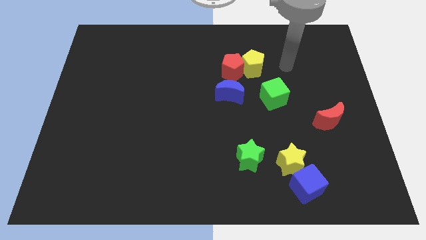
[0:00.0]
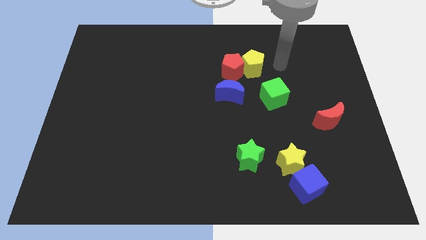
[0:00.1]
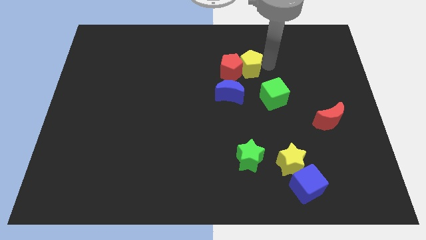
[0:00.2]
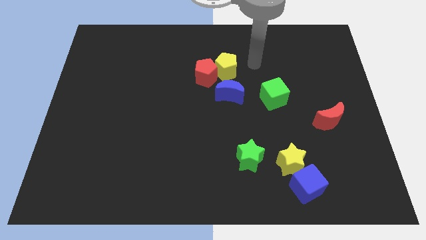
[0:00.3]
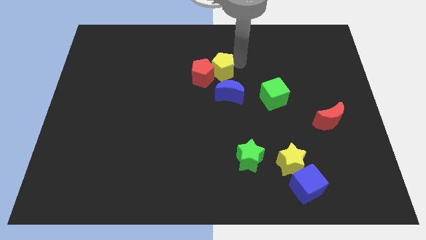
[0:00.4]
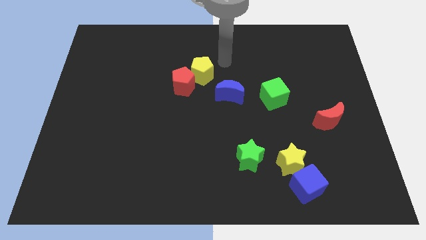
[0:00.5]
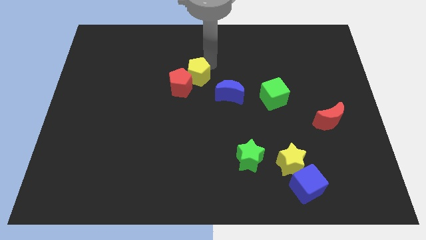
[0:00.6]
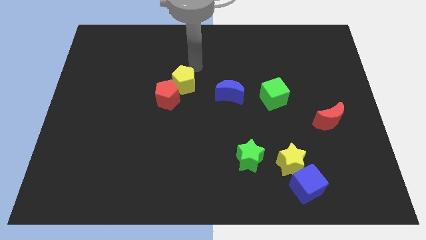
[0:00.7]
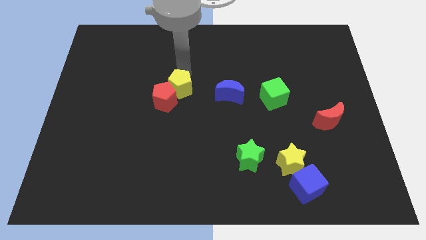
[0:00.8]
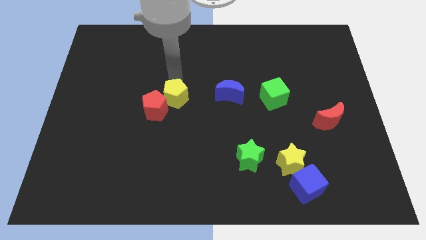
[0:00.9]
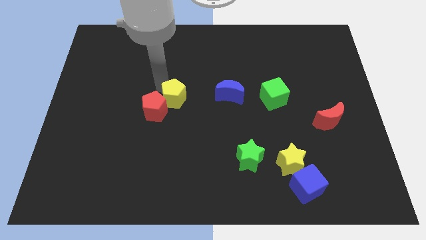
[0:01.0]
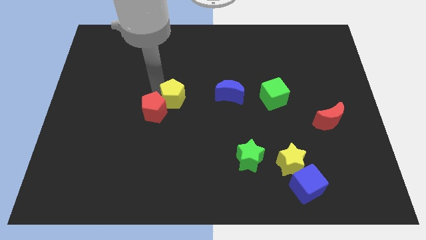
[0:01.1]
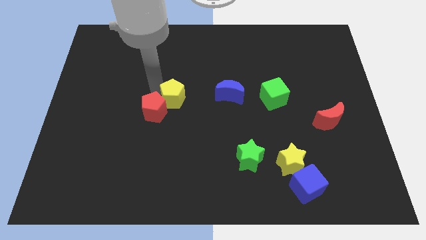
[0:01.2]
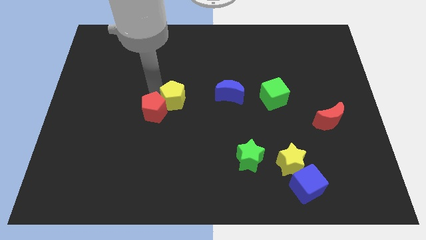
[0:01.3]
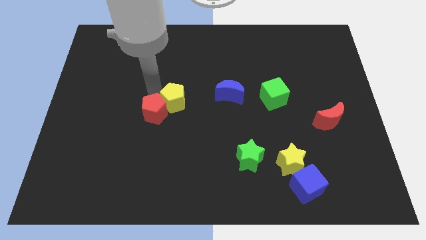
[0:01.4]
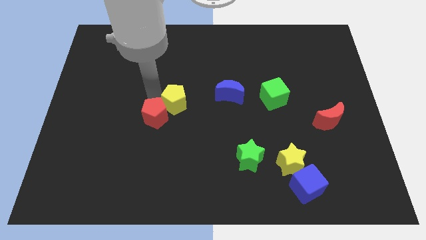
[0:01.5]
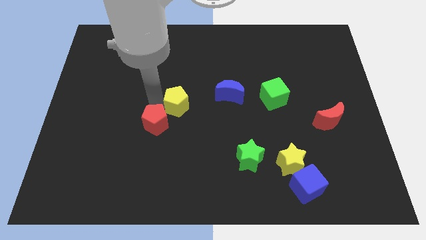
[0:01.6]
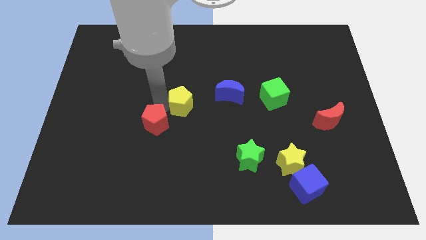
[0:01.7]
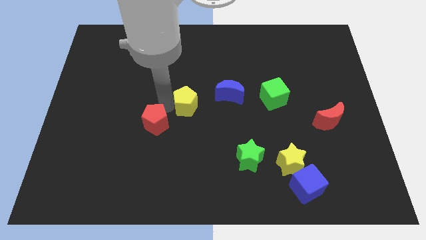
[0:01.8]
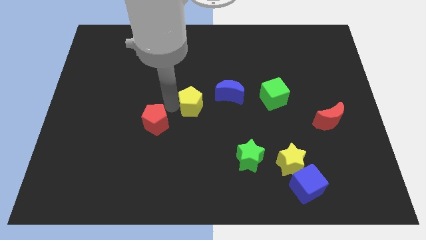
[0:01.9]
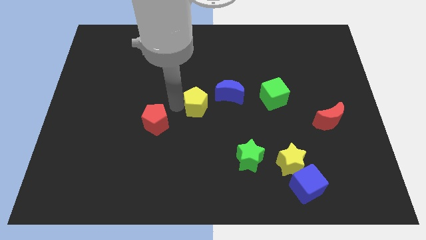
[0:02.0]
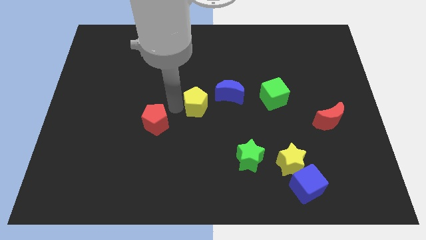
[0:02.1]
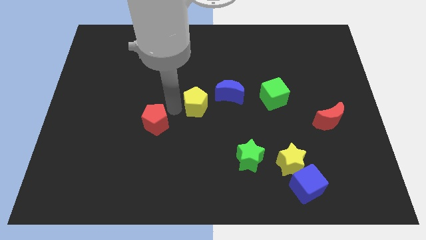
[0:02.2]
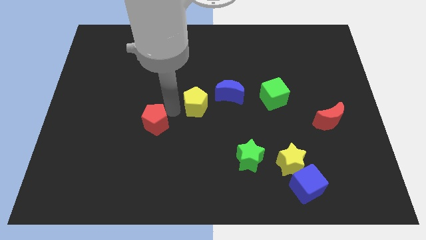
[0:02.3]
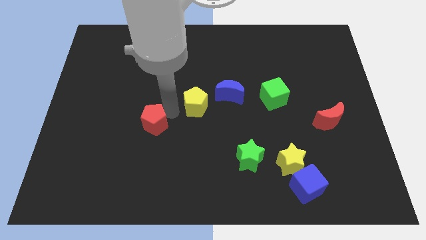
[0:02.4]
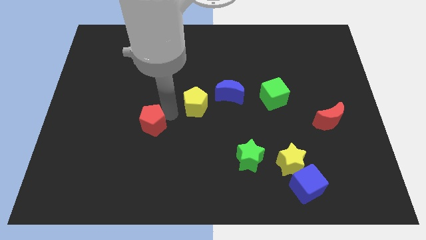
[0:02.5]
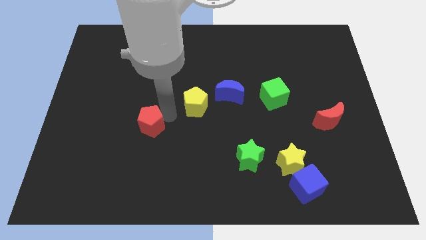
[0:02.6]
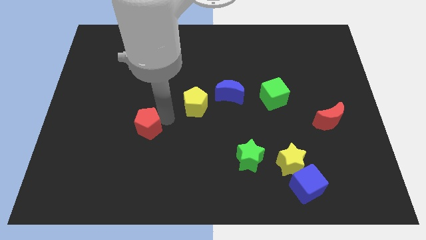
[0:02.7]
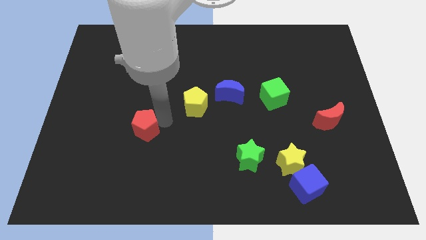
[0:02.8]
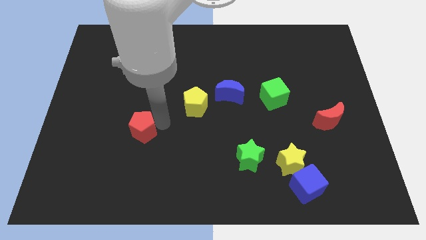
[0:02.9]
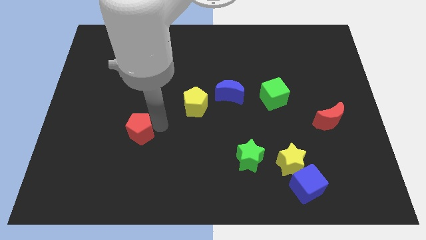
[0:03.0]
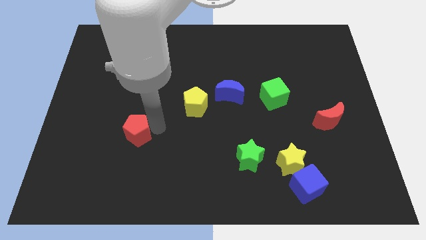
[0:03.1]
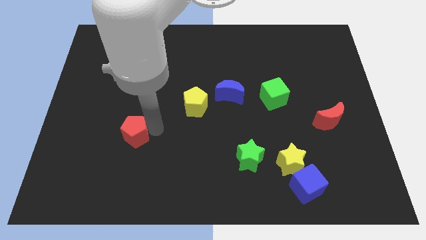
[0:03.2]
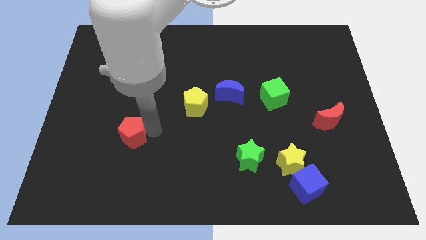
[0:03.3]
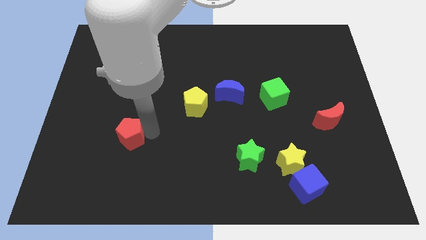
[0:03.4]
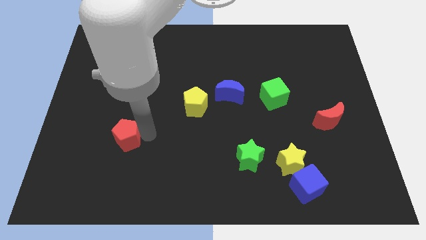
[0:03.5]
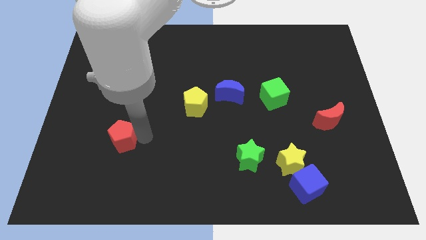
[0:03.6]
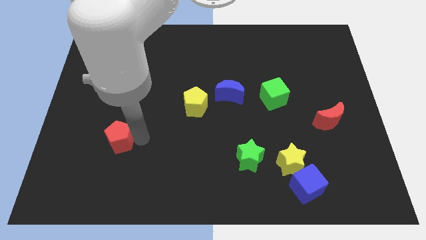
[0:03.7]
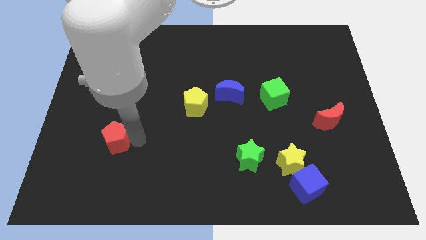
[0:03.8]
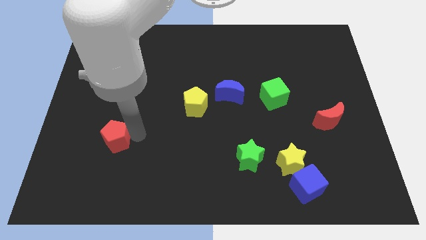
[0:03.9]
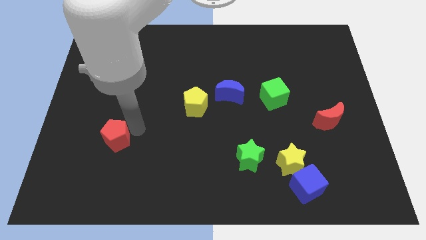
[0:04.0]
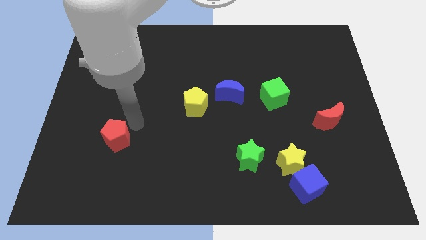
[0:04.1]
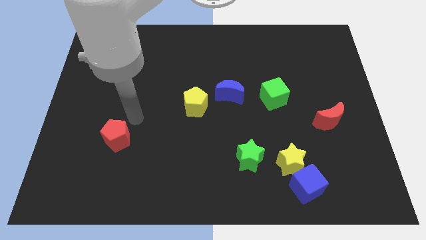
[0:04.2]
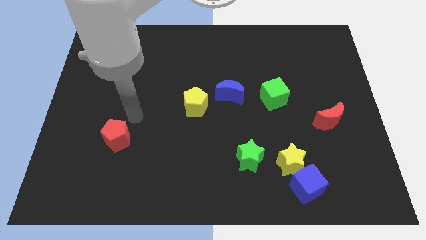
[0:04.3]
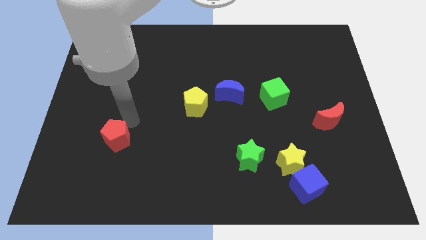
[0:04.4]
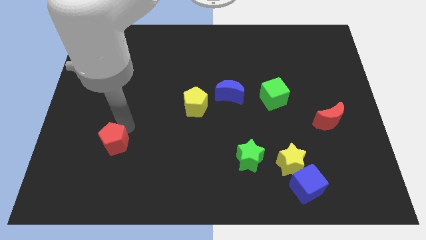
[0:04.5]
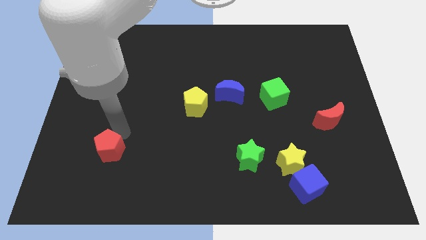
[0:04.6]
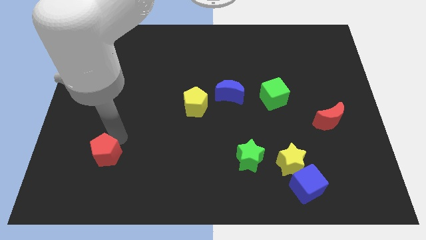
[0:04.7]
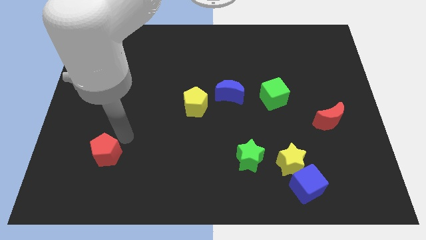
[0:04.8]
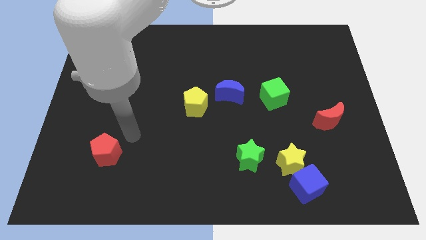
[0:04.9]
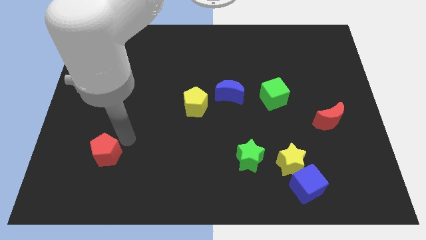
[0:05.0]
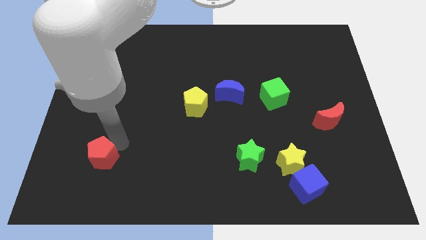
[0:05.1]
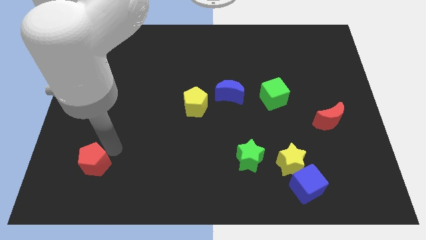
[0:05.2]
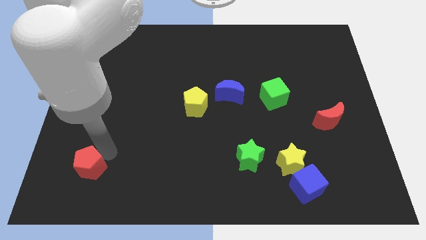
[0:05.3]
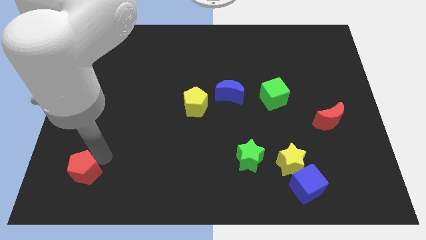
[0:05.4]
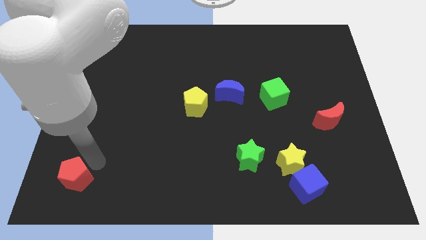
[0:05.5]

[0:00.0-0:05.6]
put the red pentagon to the bottom left corner

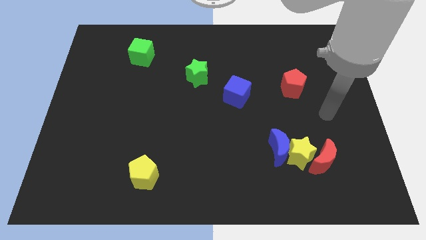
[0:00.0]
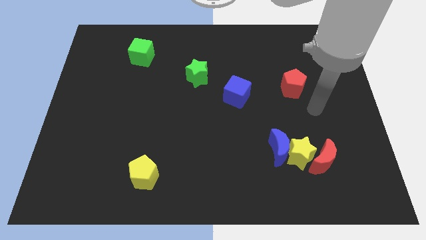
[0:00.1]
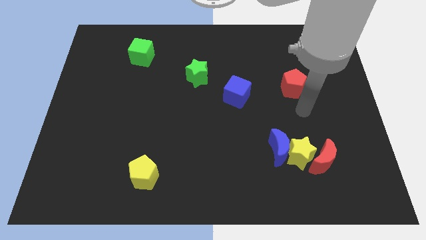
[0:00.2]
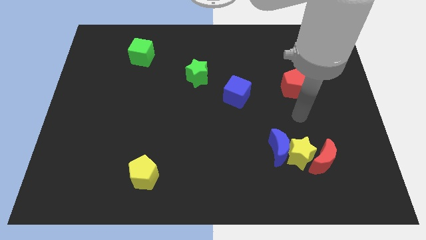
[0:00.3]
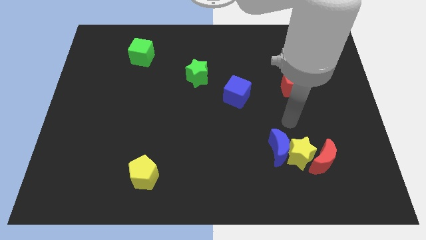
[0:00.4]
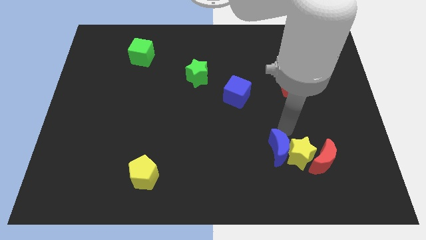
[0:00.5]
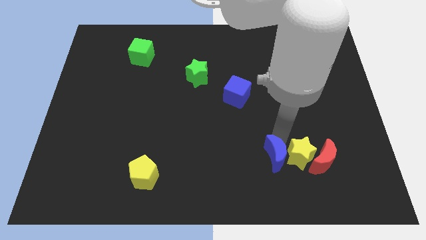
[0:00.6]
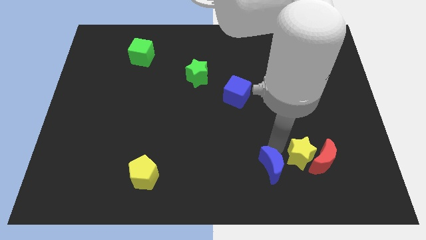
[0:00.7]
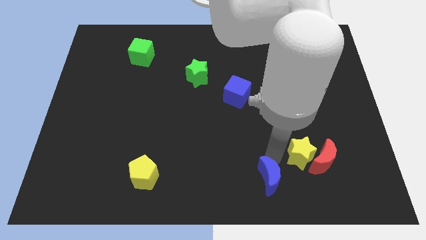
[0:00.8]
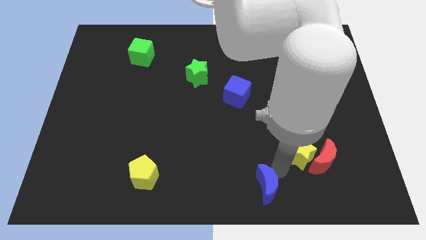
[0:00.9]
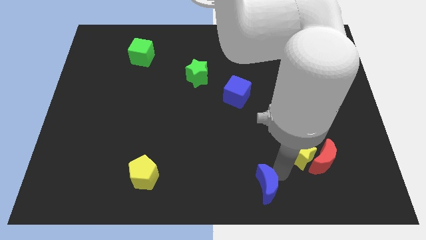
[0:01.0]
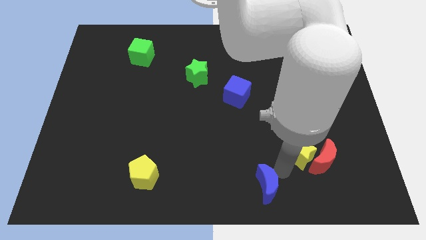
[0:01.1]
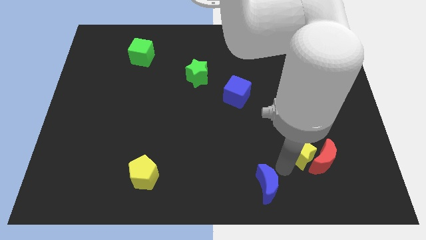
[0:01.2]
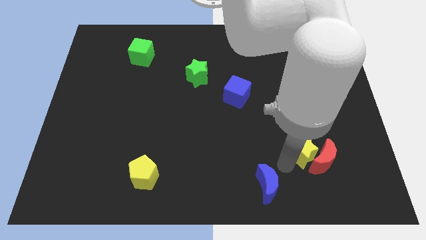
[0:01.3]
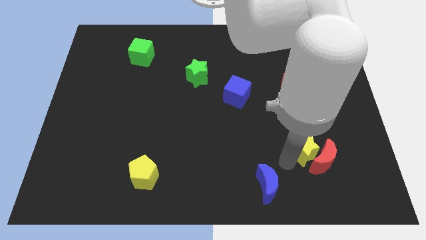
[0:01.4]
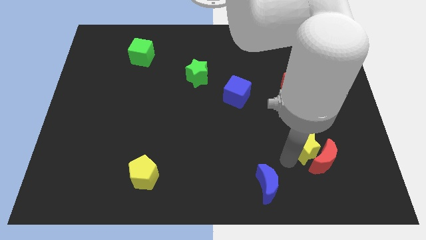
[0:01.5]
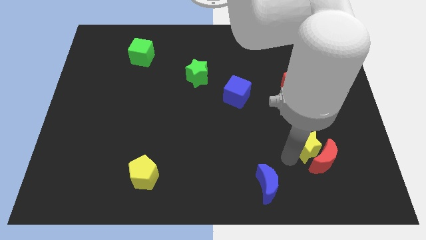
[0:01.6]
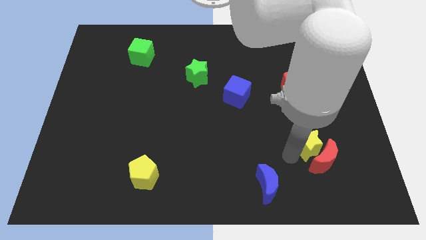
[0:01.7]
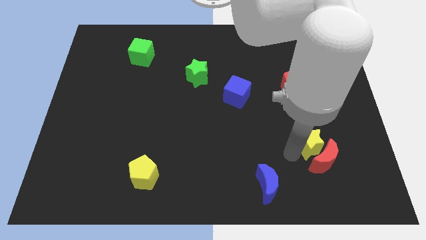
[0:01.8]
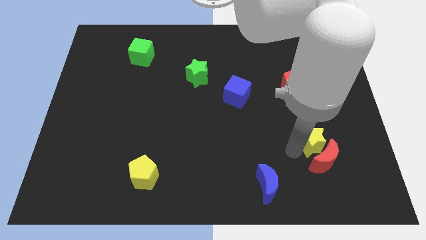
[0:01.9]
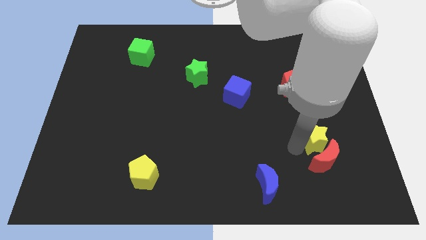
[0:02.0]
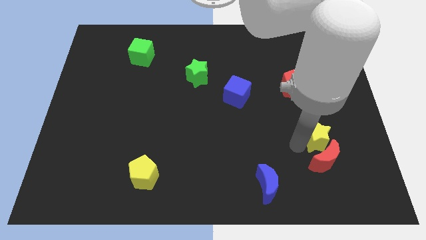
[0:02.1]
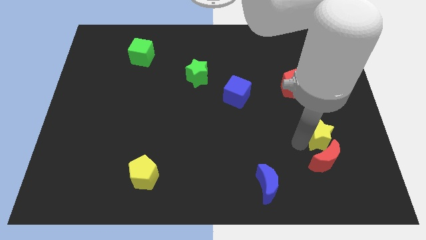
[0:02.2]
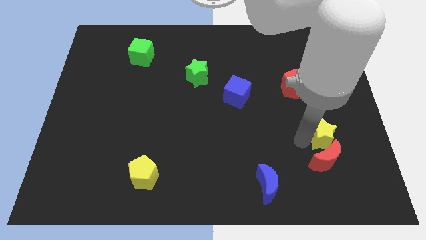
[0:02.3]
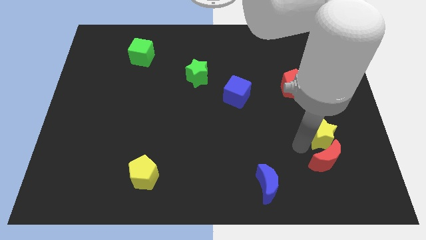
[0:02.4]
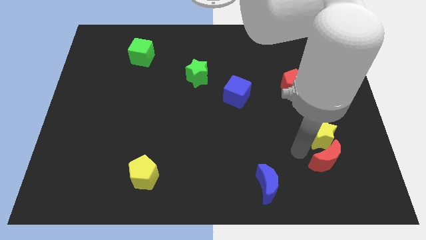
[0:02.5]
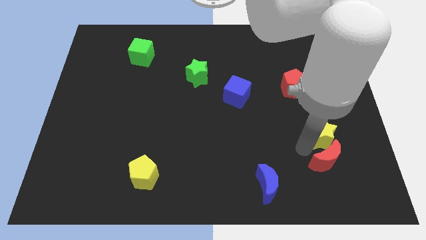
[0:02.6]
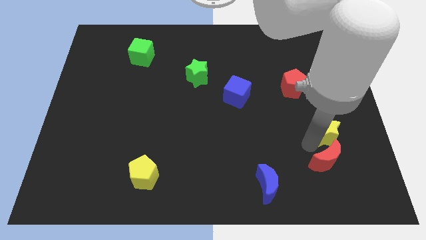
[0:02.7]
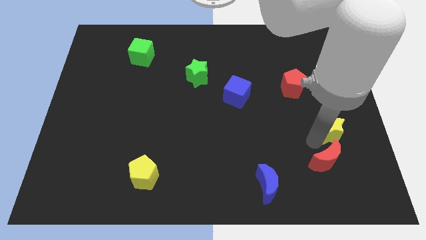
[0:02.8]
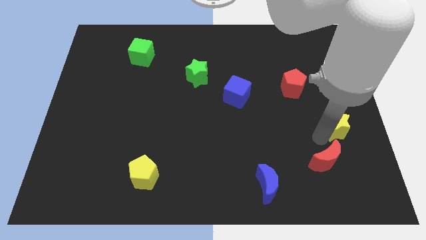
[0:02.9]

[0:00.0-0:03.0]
put the yellow star to the right side
